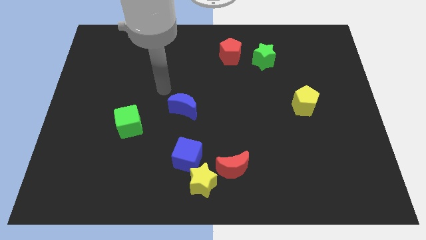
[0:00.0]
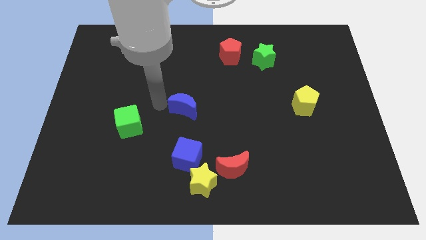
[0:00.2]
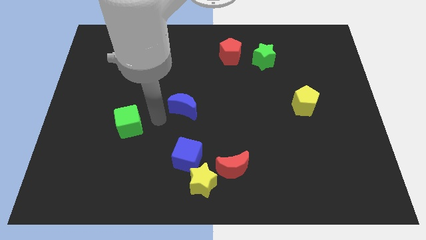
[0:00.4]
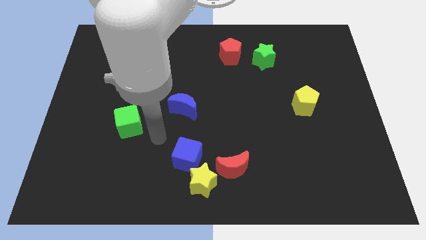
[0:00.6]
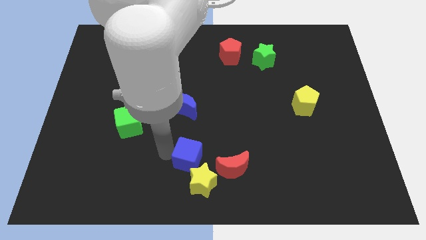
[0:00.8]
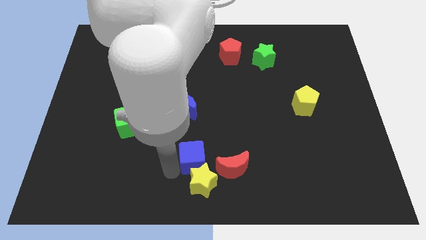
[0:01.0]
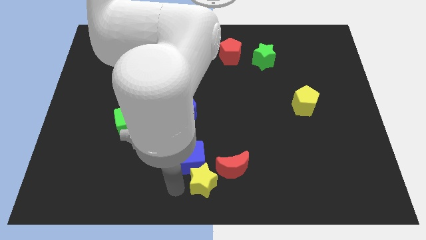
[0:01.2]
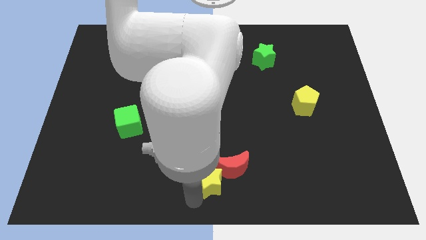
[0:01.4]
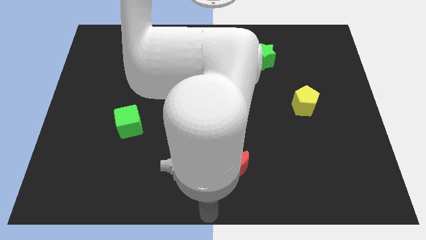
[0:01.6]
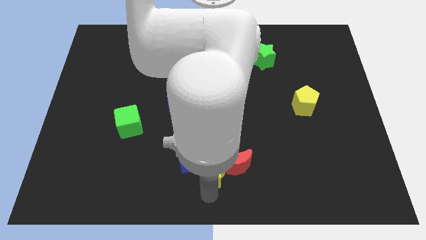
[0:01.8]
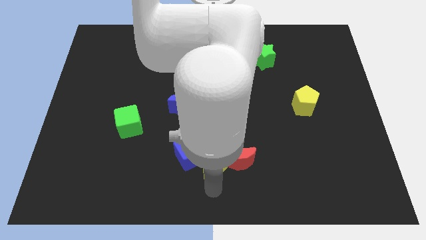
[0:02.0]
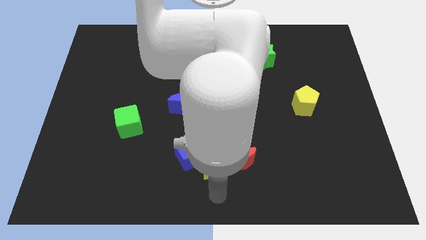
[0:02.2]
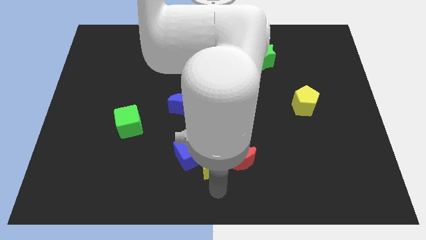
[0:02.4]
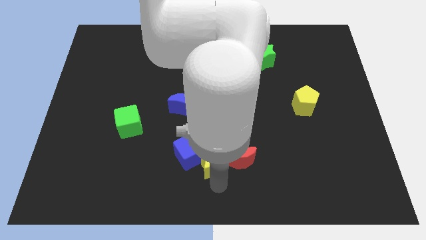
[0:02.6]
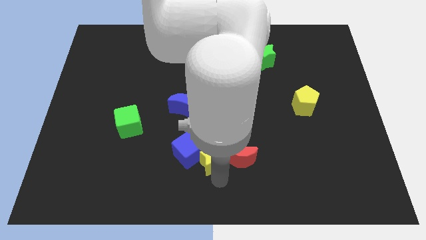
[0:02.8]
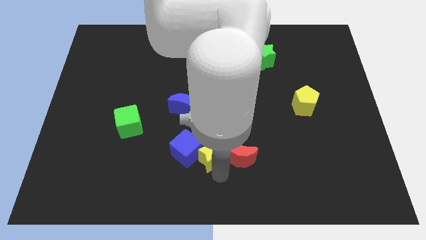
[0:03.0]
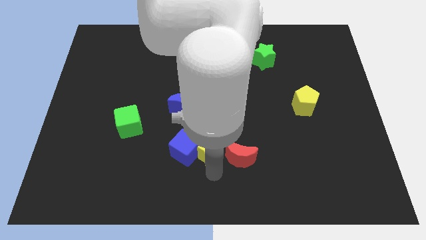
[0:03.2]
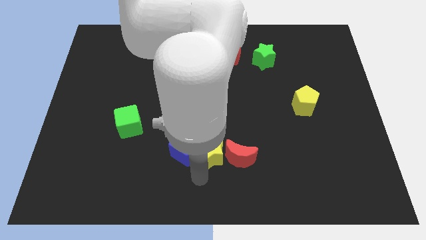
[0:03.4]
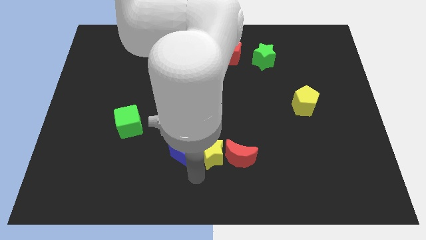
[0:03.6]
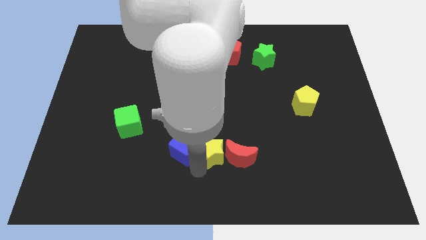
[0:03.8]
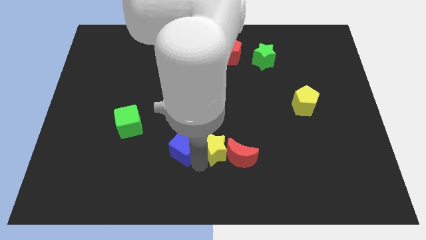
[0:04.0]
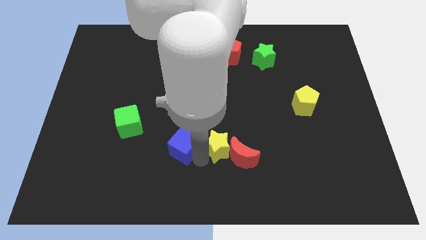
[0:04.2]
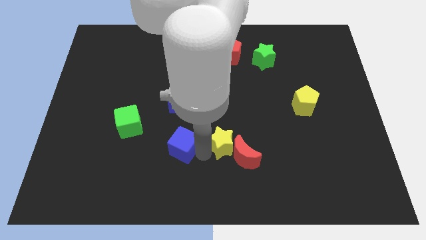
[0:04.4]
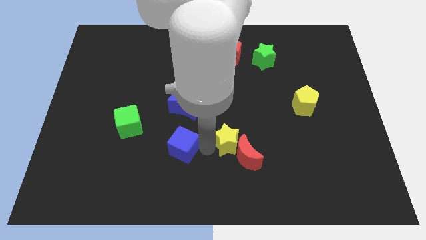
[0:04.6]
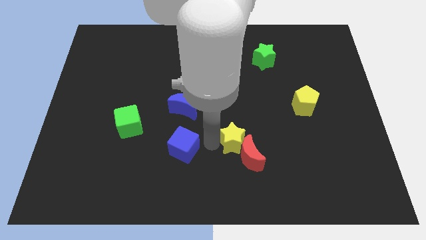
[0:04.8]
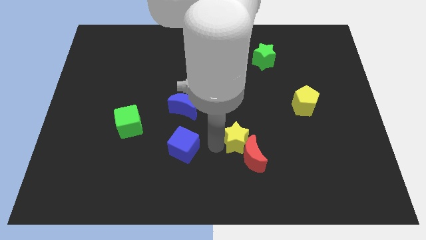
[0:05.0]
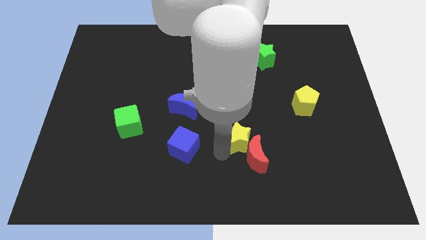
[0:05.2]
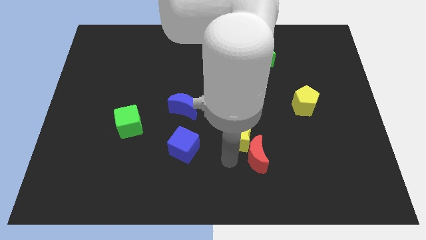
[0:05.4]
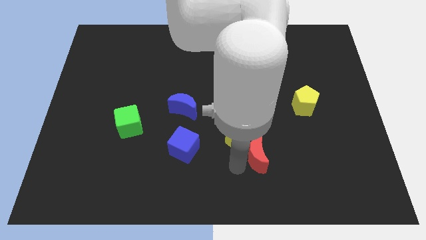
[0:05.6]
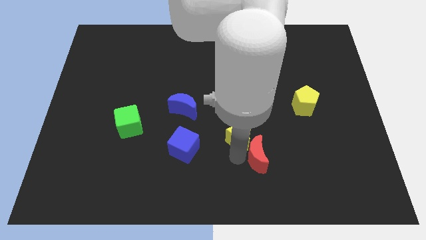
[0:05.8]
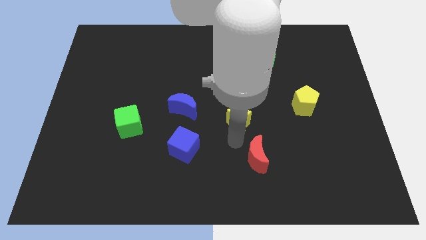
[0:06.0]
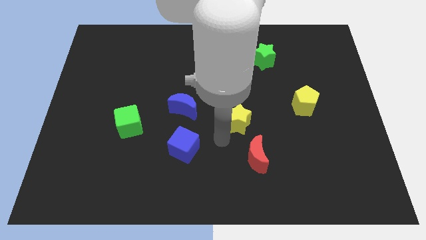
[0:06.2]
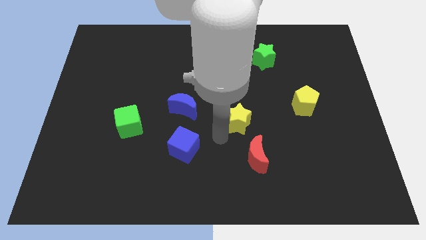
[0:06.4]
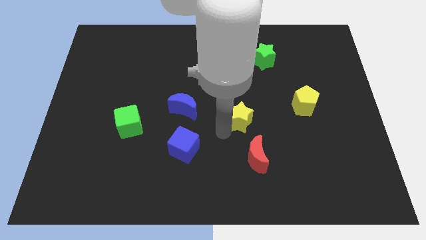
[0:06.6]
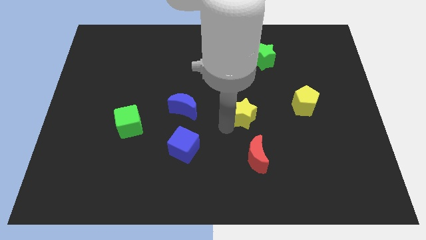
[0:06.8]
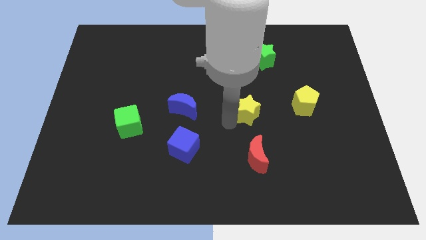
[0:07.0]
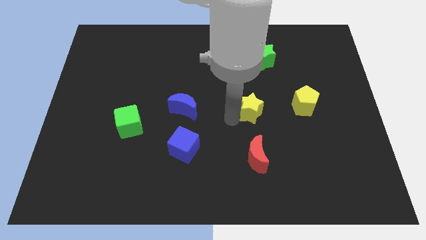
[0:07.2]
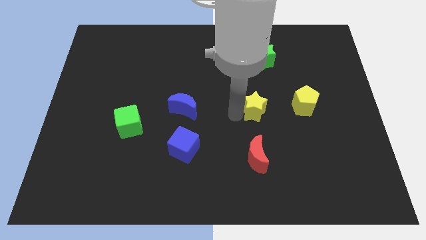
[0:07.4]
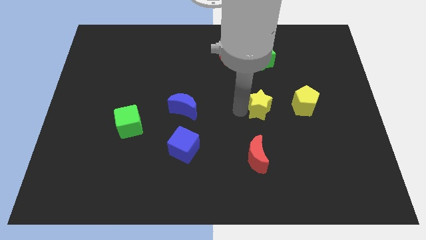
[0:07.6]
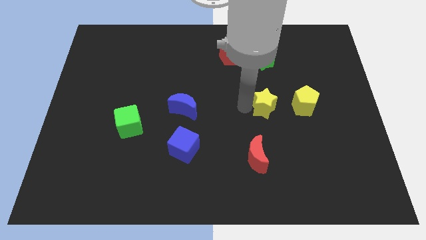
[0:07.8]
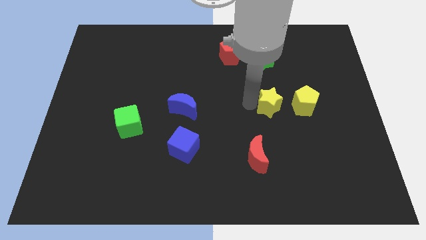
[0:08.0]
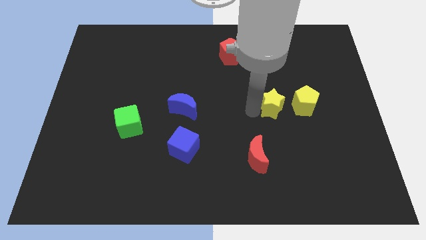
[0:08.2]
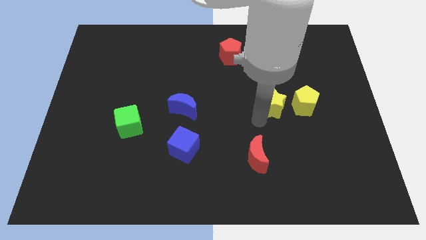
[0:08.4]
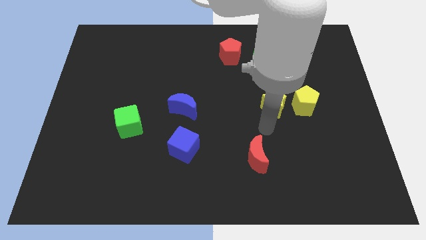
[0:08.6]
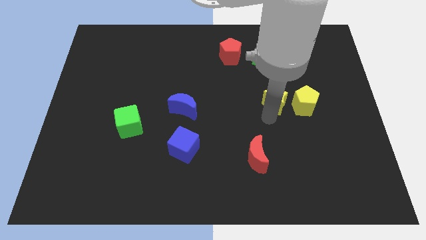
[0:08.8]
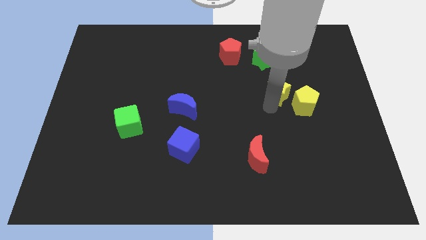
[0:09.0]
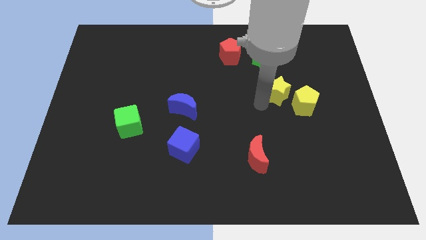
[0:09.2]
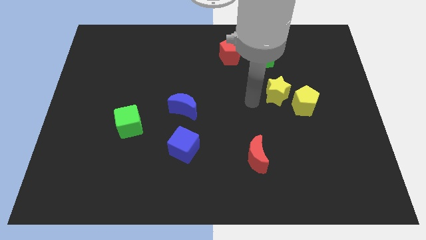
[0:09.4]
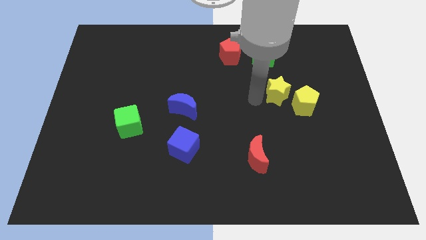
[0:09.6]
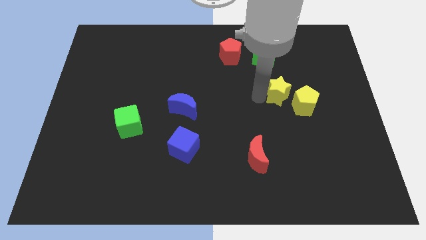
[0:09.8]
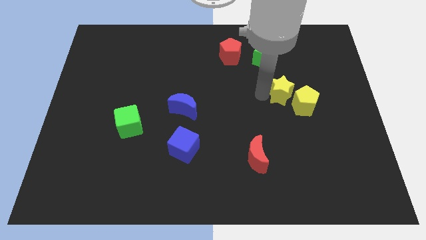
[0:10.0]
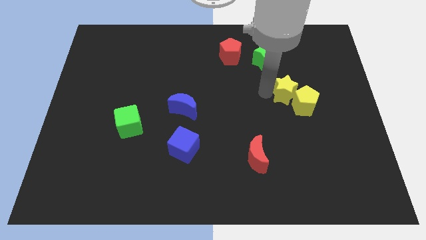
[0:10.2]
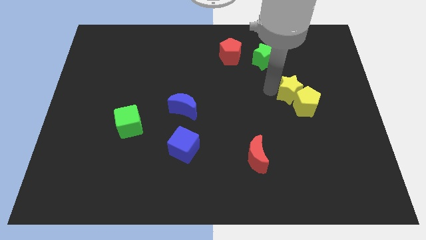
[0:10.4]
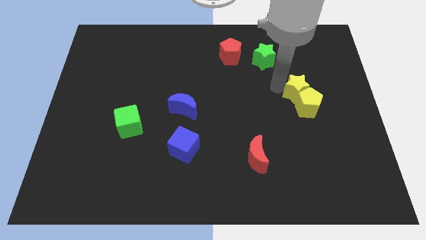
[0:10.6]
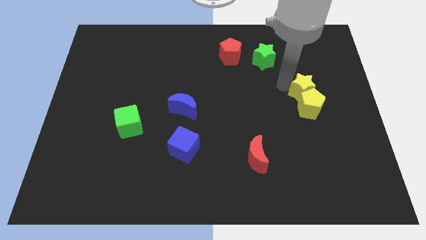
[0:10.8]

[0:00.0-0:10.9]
put the yellow star to the top right of the yellow pentagon

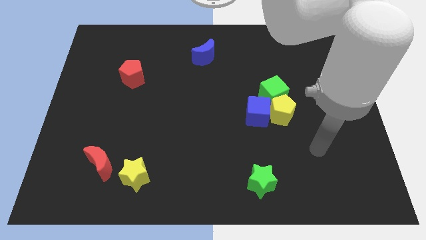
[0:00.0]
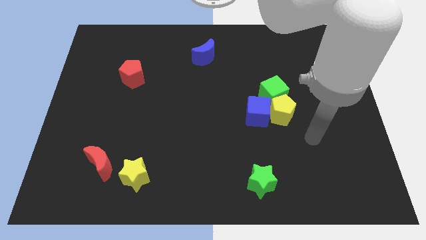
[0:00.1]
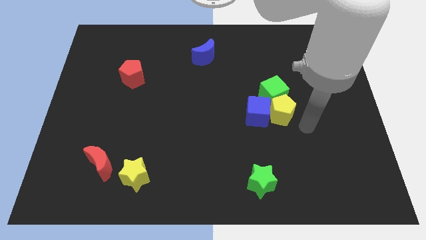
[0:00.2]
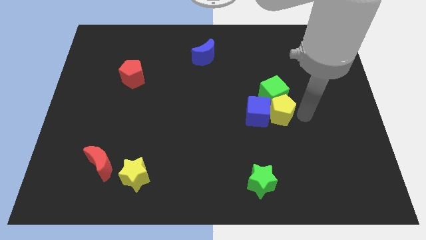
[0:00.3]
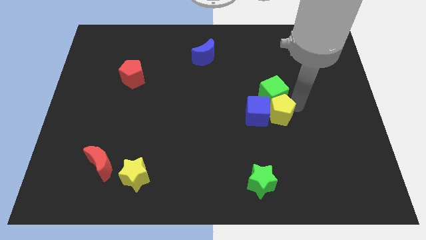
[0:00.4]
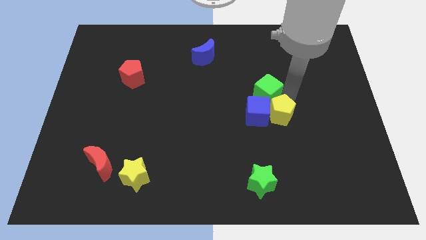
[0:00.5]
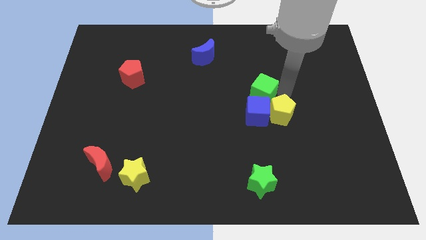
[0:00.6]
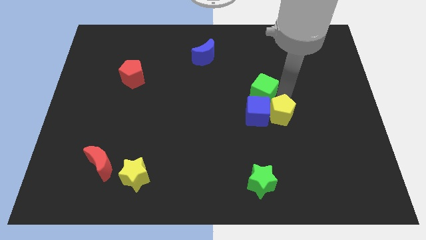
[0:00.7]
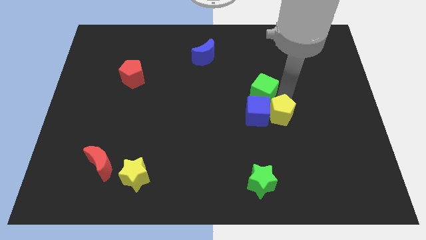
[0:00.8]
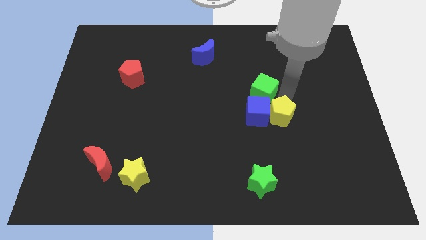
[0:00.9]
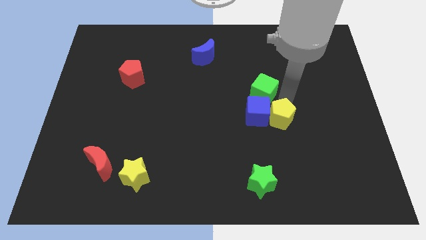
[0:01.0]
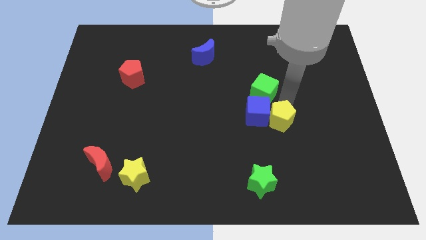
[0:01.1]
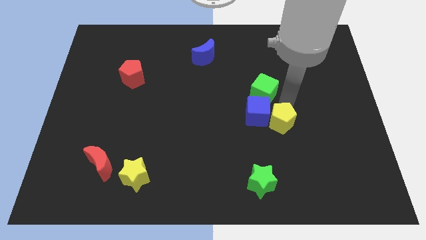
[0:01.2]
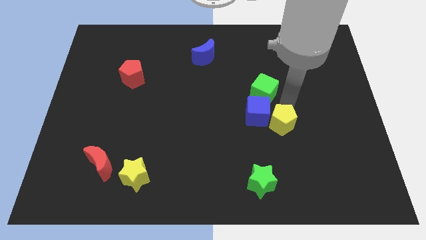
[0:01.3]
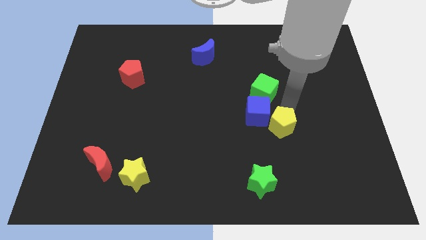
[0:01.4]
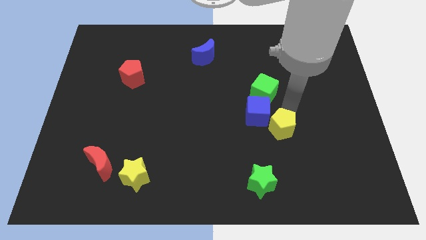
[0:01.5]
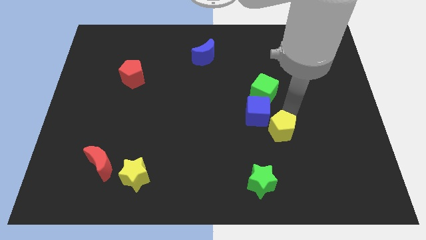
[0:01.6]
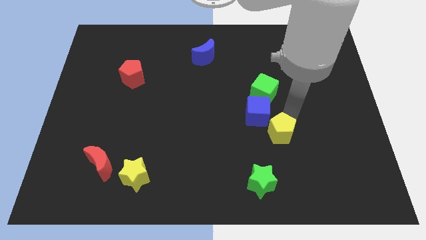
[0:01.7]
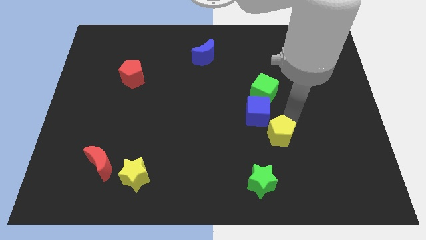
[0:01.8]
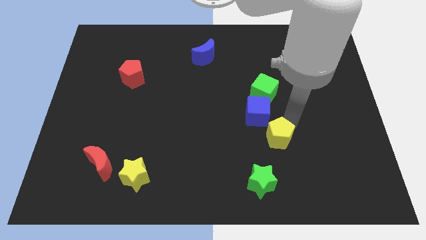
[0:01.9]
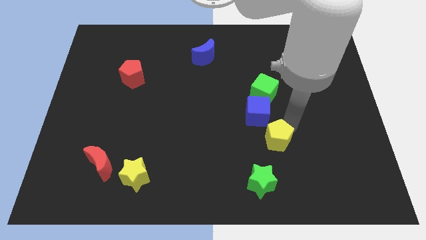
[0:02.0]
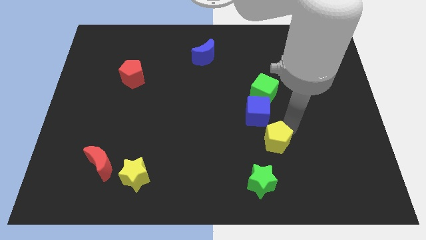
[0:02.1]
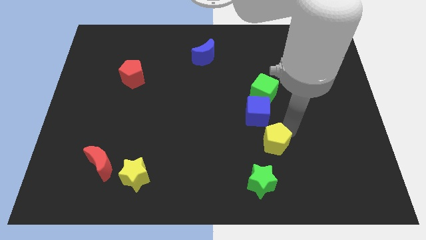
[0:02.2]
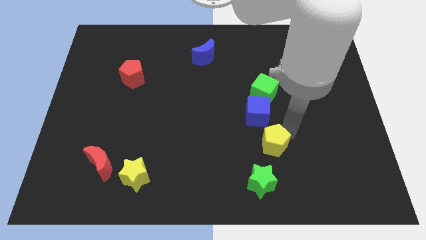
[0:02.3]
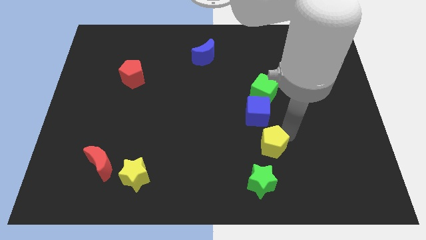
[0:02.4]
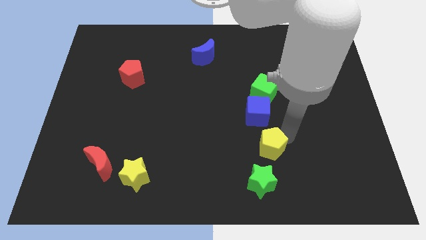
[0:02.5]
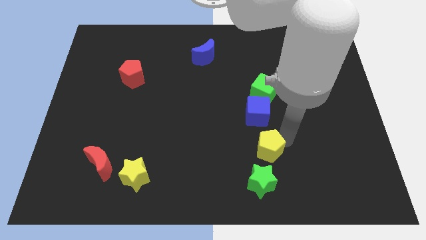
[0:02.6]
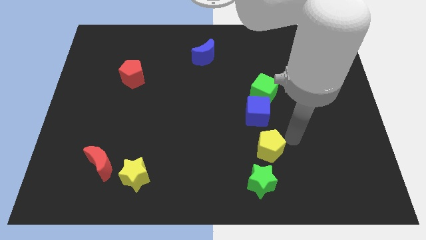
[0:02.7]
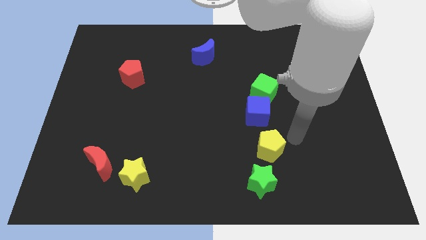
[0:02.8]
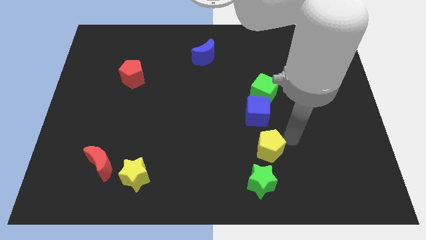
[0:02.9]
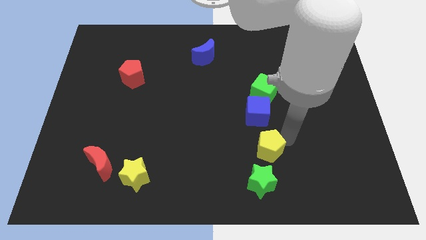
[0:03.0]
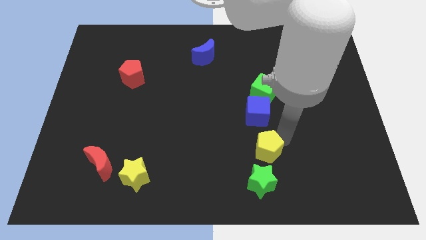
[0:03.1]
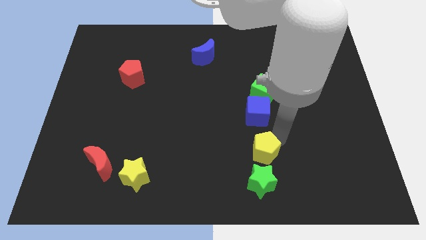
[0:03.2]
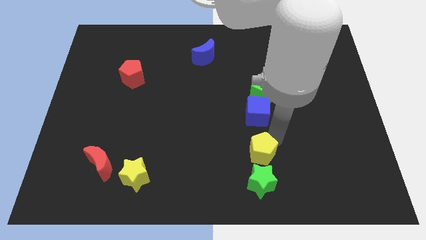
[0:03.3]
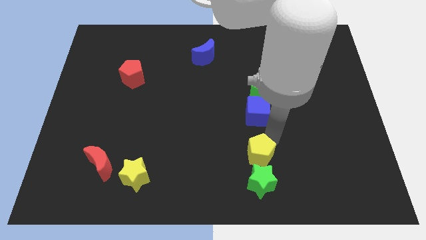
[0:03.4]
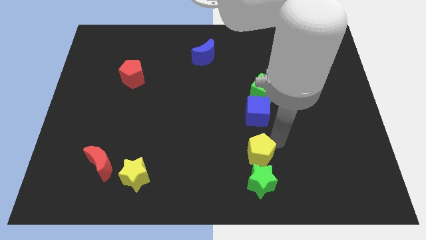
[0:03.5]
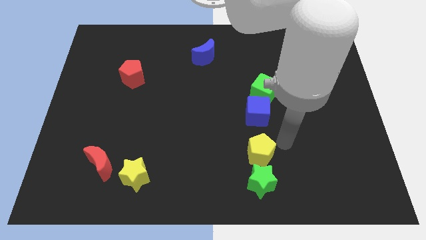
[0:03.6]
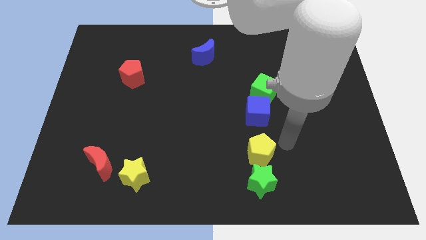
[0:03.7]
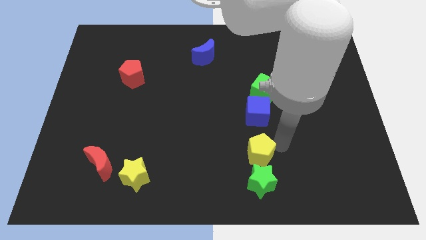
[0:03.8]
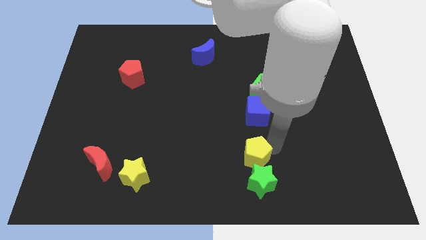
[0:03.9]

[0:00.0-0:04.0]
move the yellow pentagon to the top left of the green star
